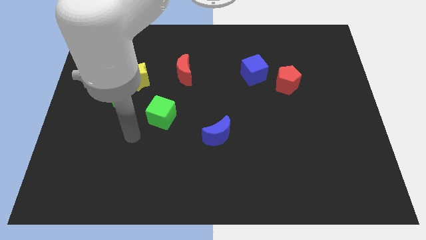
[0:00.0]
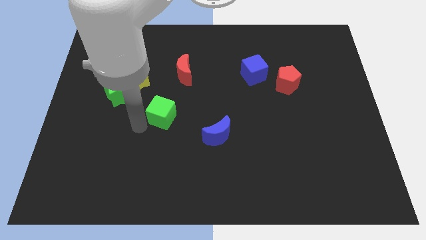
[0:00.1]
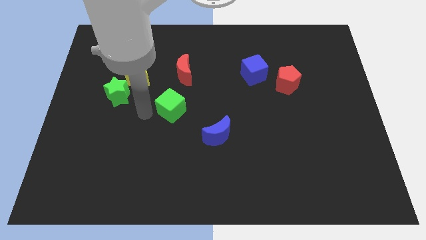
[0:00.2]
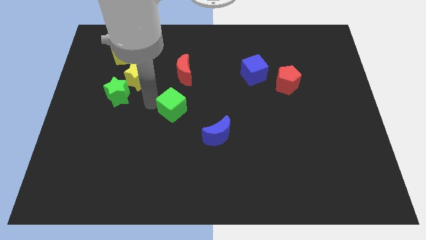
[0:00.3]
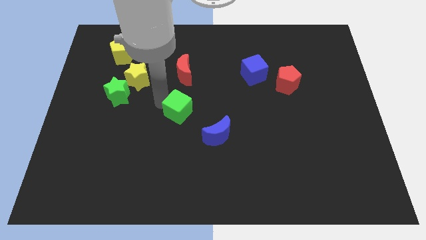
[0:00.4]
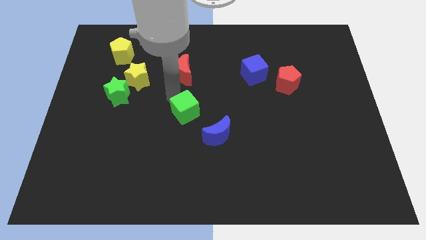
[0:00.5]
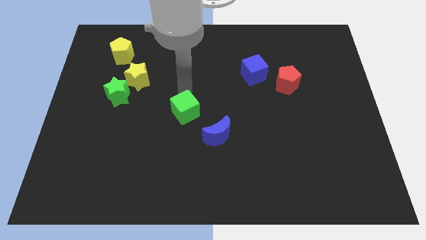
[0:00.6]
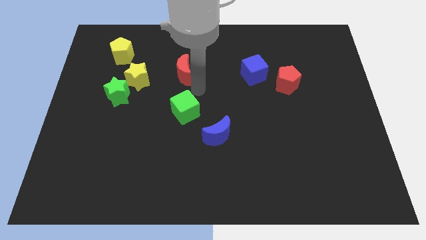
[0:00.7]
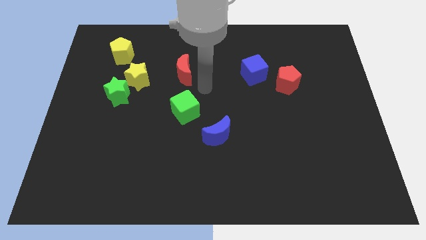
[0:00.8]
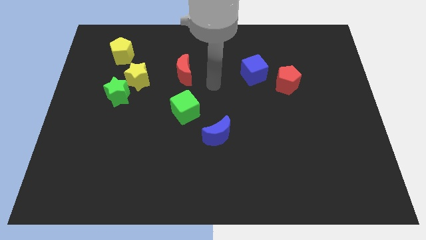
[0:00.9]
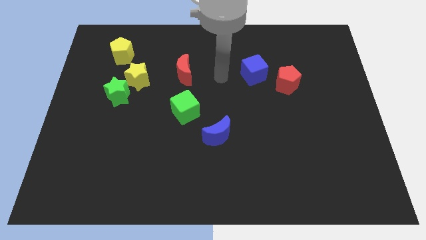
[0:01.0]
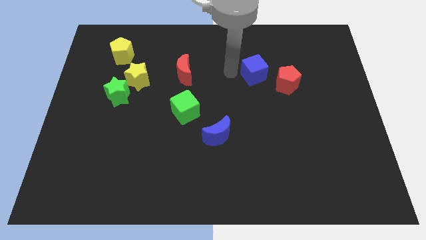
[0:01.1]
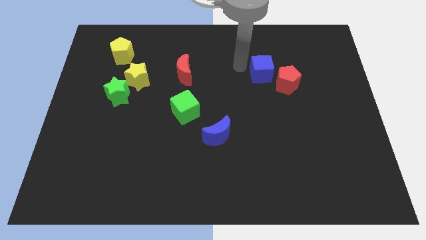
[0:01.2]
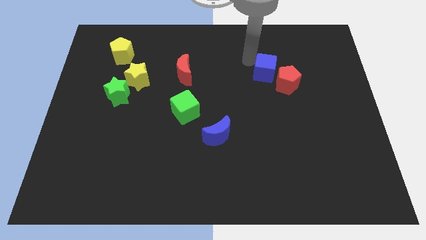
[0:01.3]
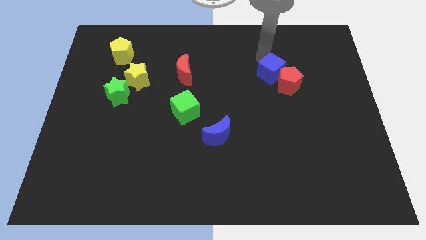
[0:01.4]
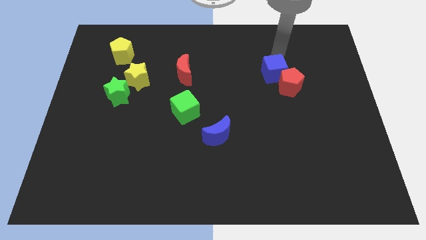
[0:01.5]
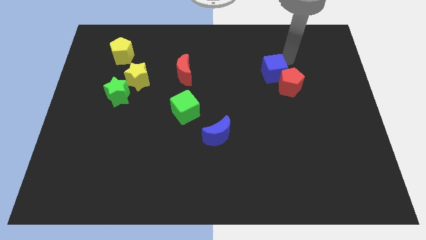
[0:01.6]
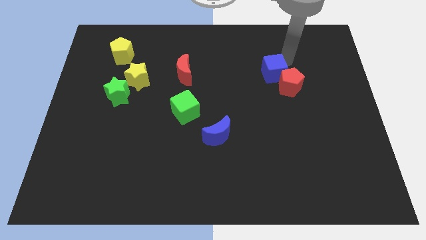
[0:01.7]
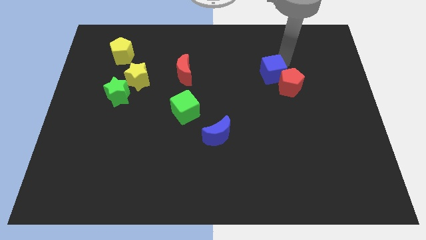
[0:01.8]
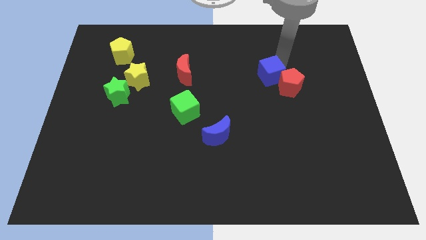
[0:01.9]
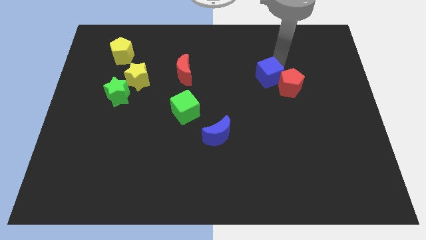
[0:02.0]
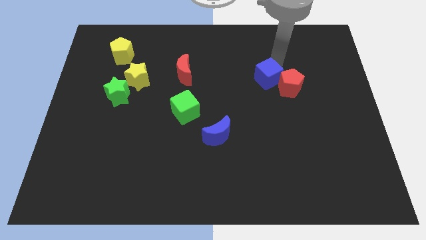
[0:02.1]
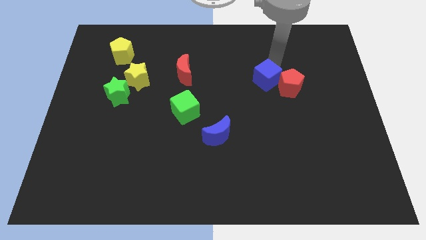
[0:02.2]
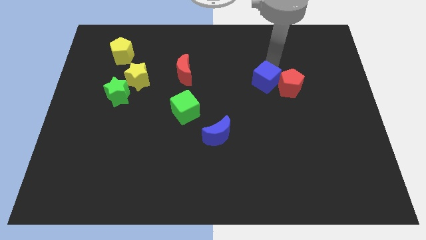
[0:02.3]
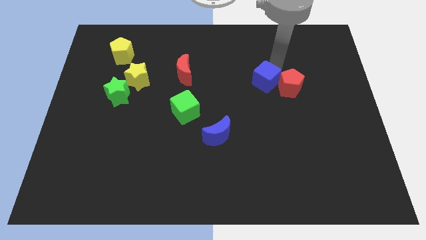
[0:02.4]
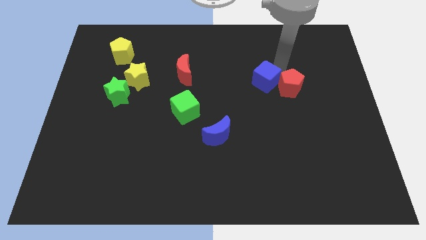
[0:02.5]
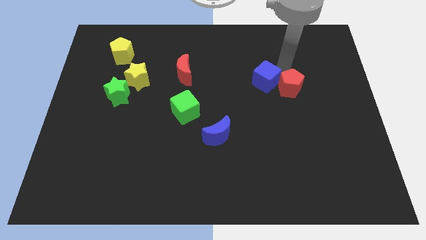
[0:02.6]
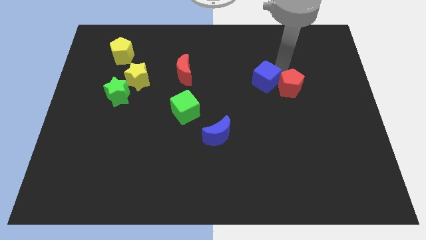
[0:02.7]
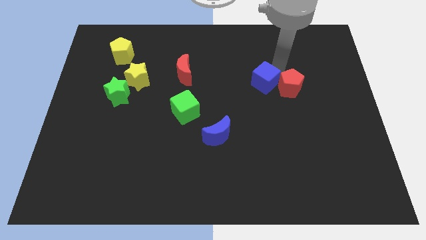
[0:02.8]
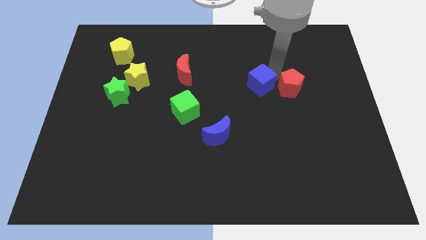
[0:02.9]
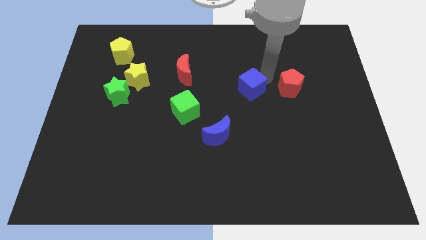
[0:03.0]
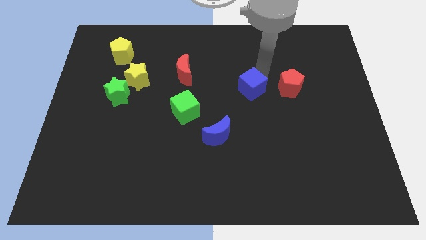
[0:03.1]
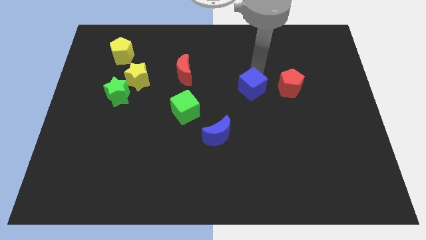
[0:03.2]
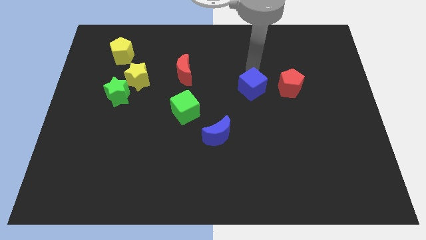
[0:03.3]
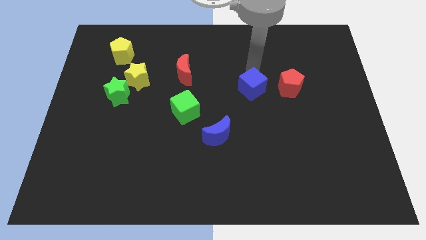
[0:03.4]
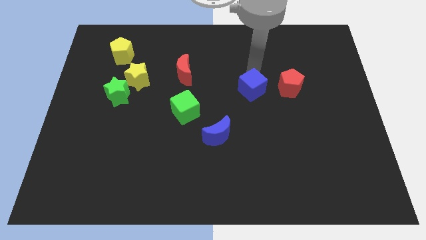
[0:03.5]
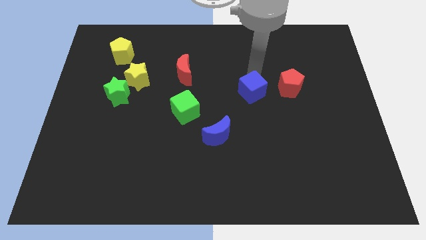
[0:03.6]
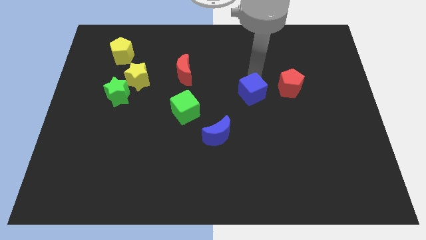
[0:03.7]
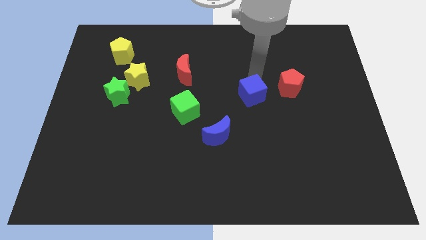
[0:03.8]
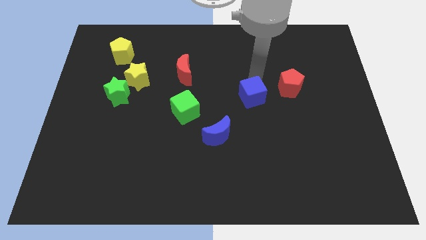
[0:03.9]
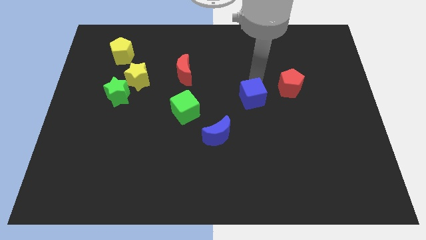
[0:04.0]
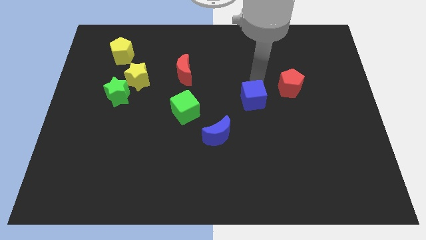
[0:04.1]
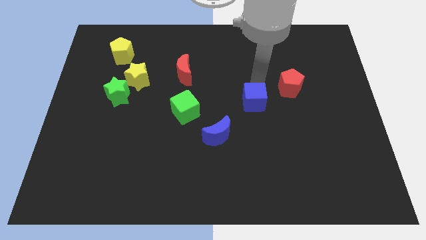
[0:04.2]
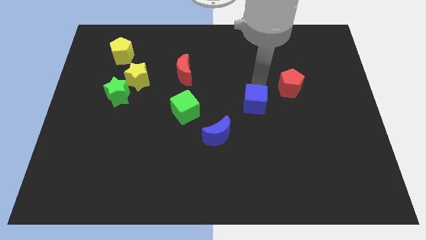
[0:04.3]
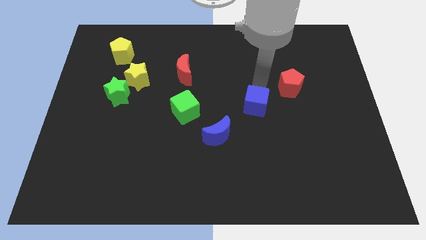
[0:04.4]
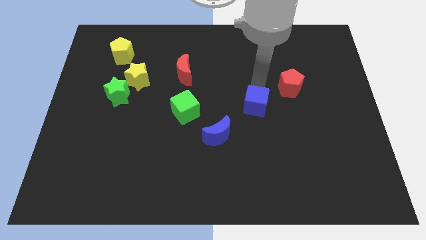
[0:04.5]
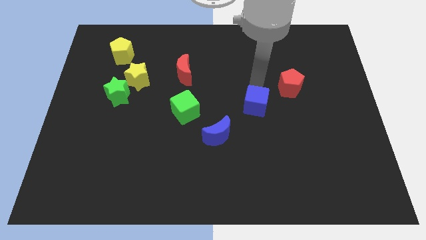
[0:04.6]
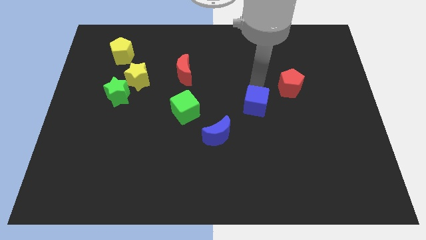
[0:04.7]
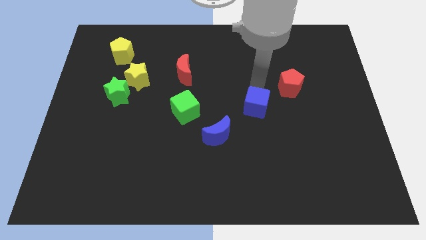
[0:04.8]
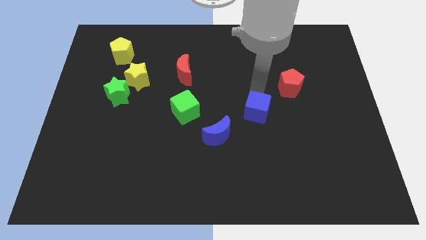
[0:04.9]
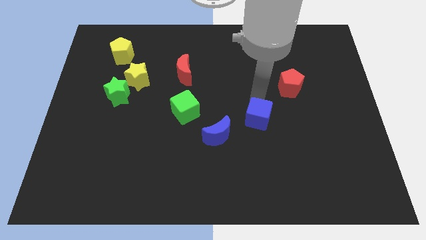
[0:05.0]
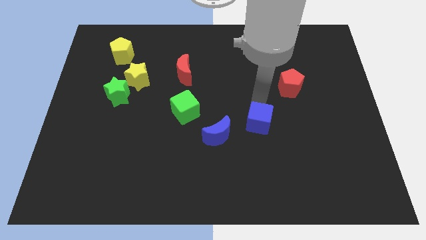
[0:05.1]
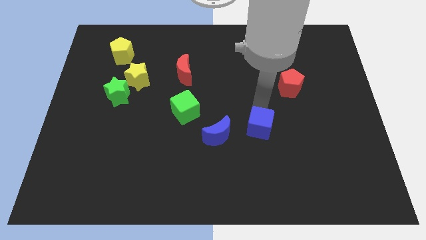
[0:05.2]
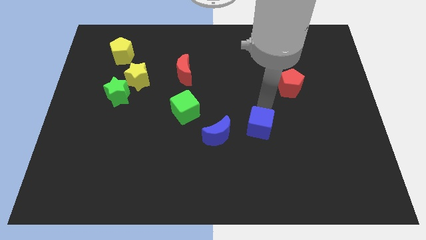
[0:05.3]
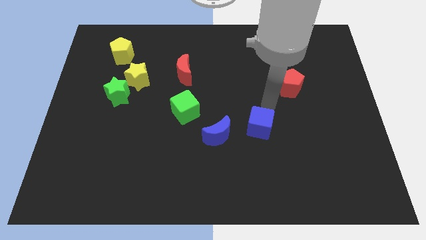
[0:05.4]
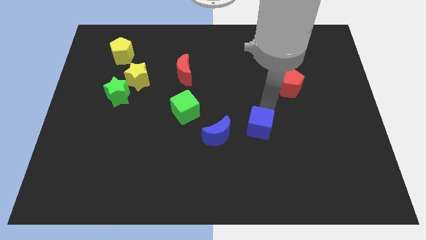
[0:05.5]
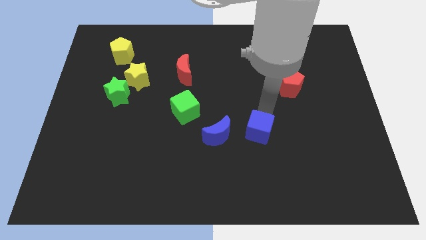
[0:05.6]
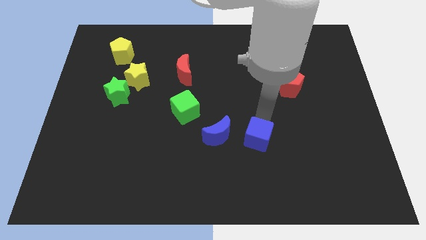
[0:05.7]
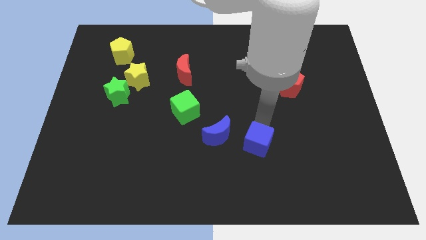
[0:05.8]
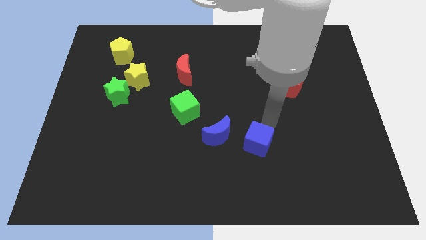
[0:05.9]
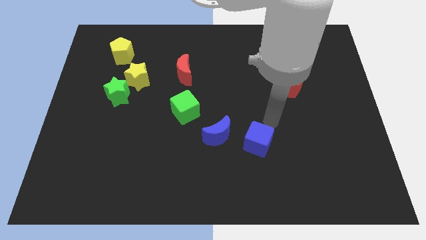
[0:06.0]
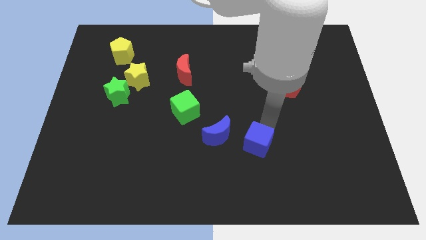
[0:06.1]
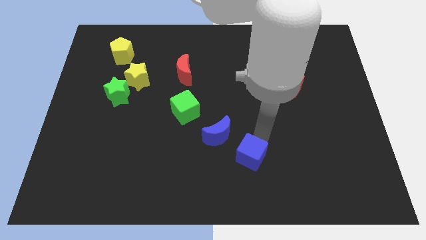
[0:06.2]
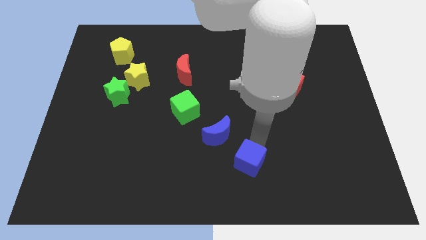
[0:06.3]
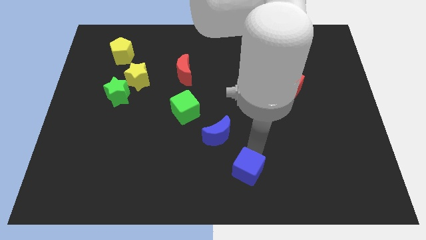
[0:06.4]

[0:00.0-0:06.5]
push the blue cube to the bottom
